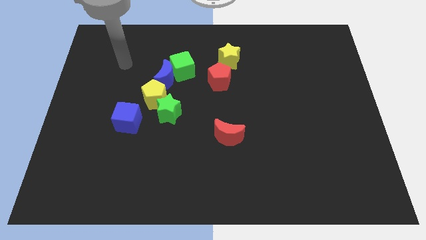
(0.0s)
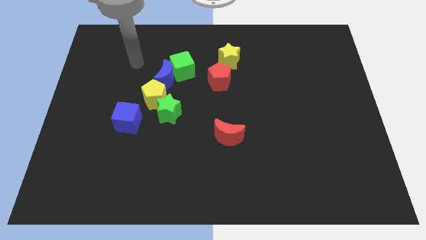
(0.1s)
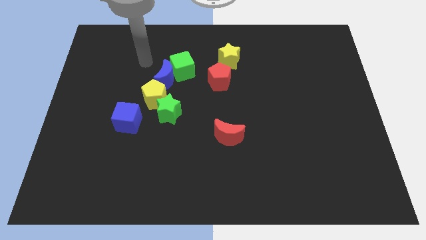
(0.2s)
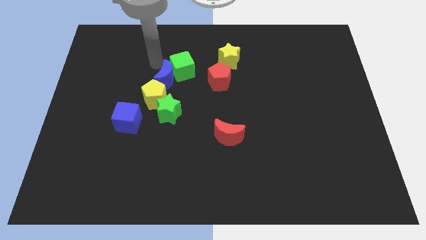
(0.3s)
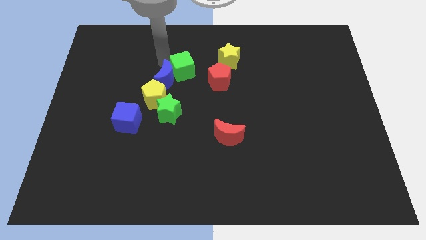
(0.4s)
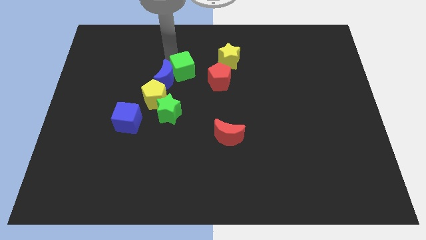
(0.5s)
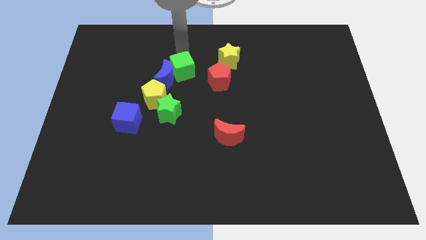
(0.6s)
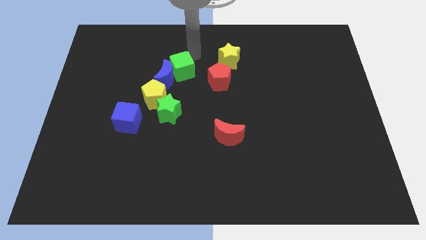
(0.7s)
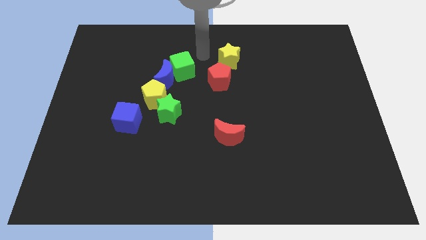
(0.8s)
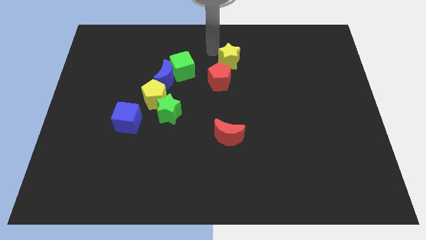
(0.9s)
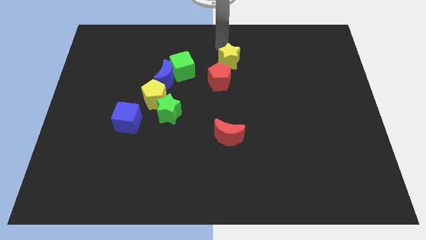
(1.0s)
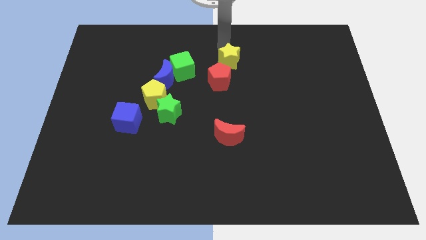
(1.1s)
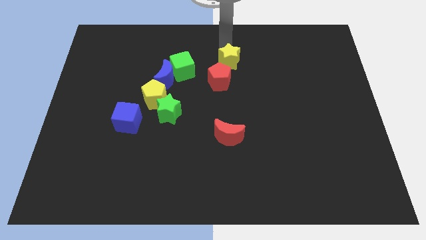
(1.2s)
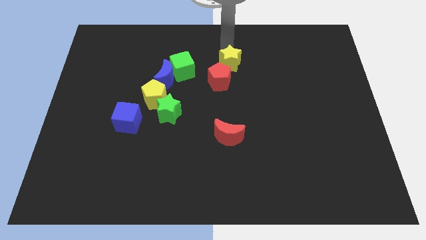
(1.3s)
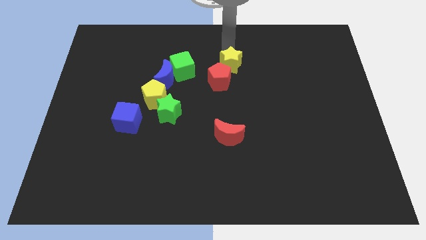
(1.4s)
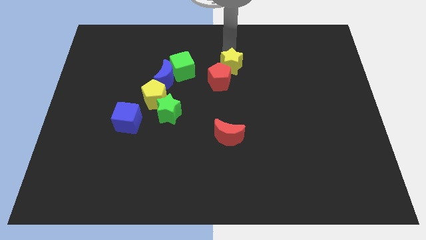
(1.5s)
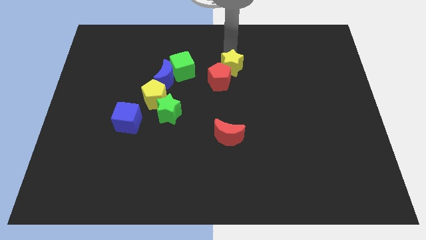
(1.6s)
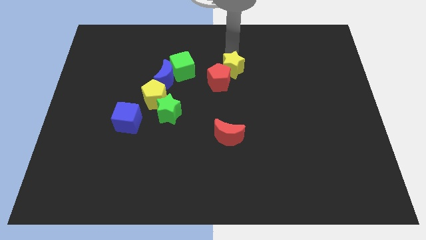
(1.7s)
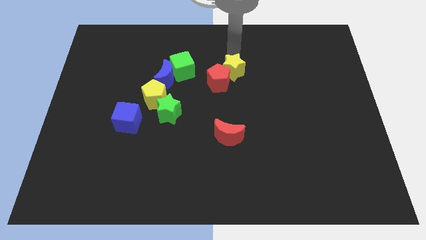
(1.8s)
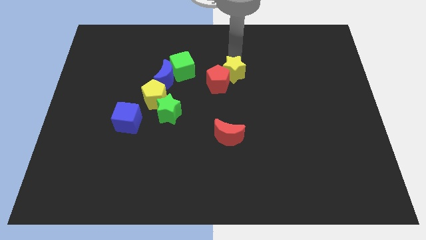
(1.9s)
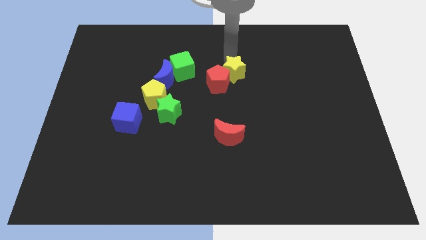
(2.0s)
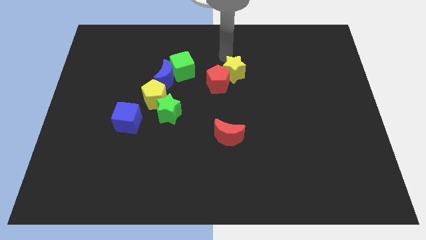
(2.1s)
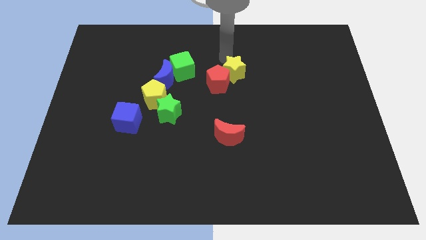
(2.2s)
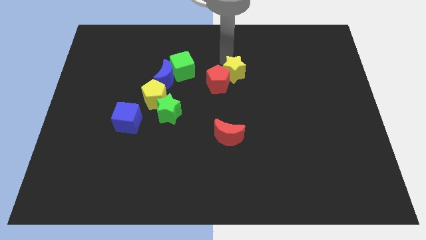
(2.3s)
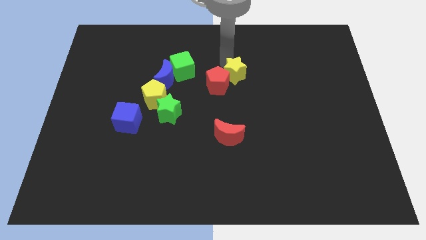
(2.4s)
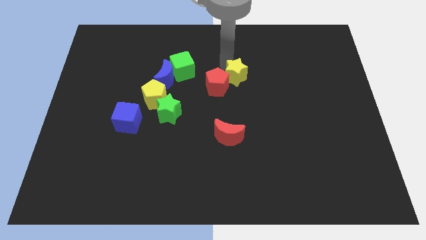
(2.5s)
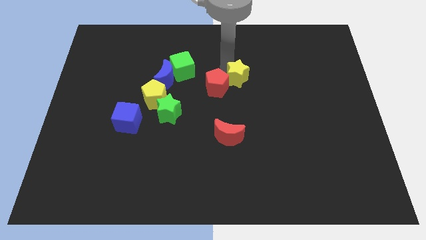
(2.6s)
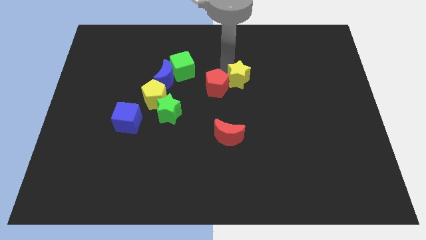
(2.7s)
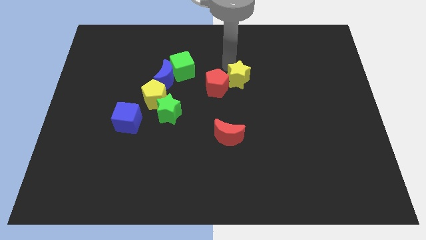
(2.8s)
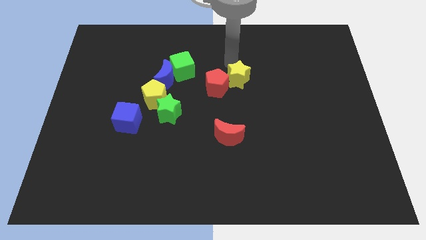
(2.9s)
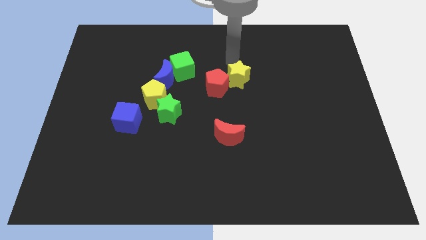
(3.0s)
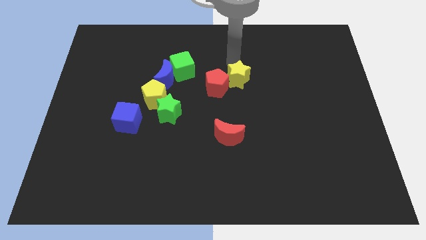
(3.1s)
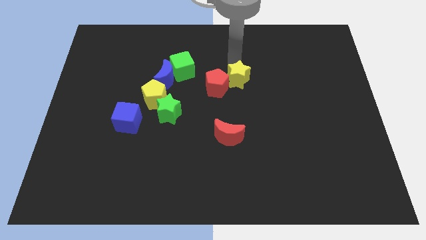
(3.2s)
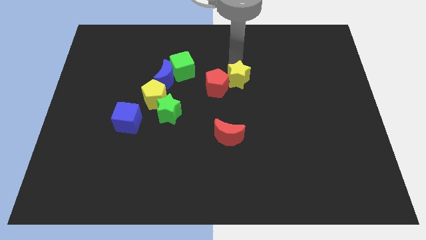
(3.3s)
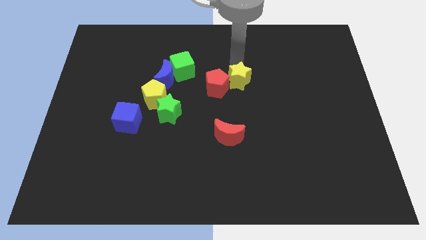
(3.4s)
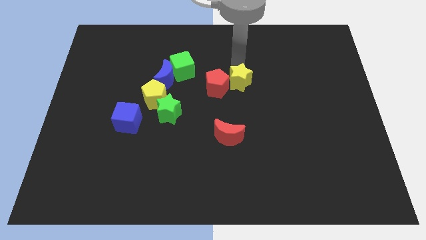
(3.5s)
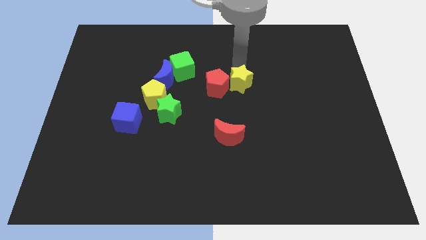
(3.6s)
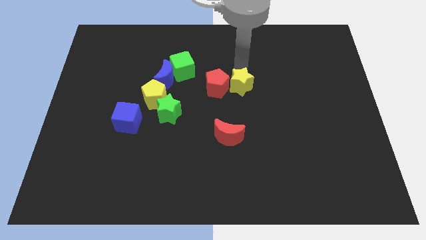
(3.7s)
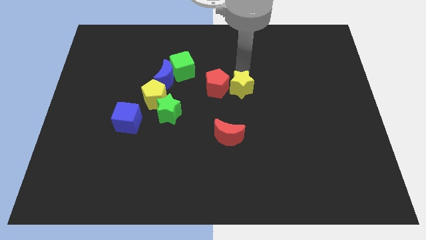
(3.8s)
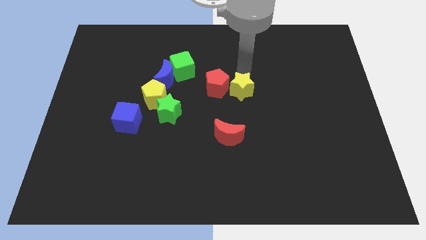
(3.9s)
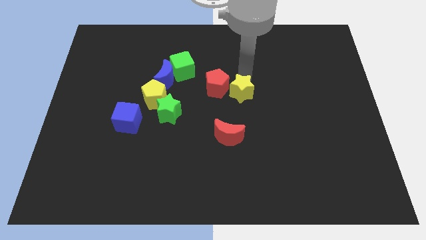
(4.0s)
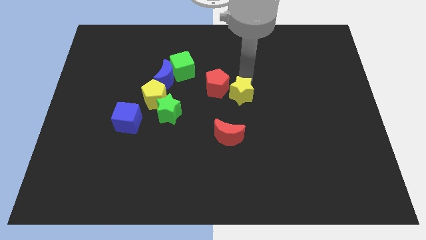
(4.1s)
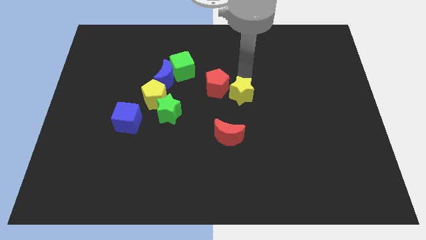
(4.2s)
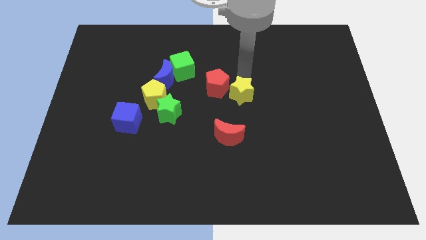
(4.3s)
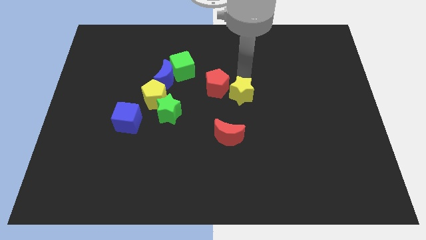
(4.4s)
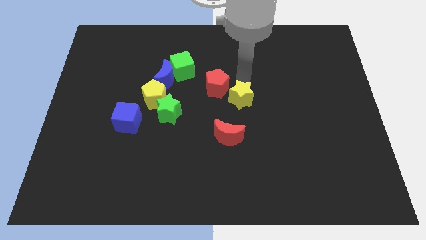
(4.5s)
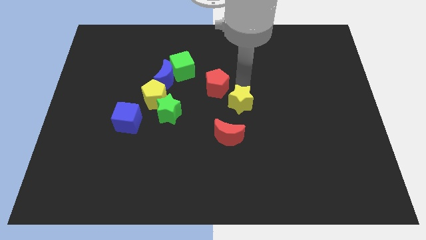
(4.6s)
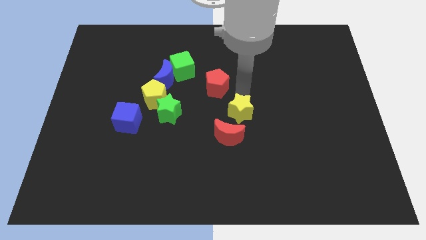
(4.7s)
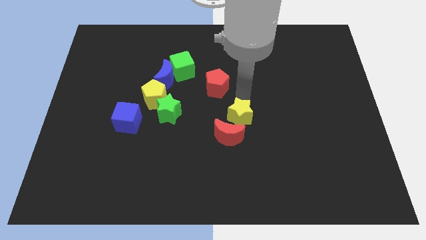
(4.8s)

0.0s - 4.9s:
move the yellow star next to the red moon

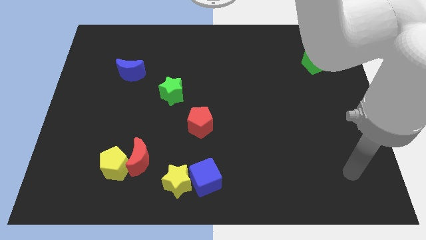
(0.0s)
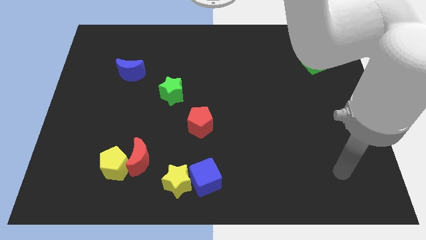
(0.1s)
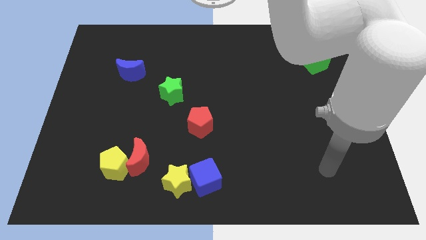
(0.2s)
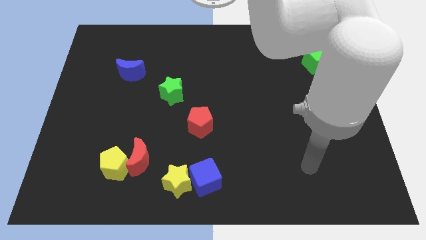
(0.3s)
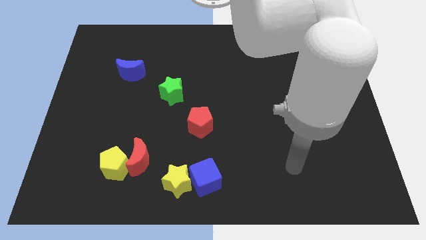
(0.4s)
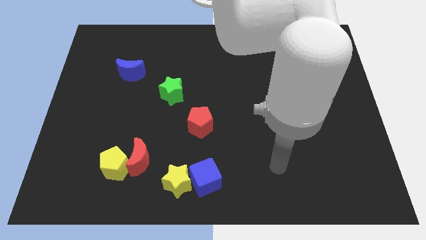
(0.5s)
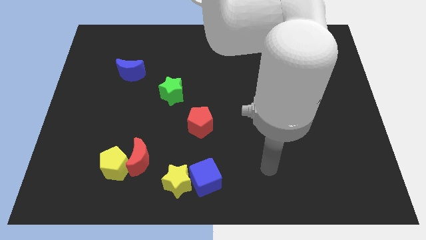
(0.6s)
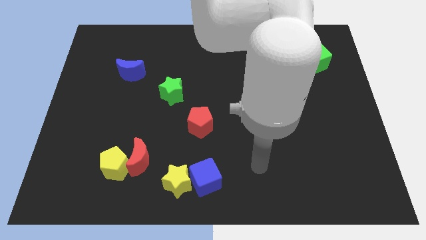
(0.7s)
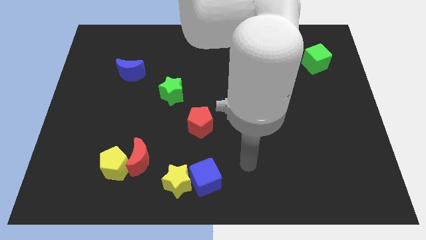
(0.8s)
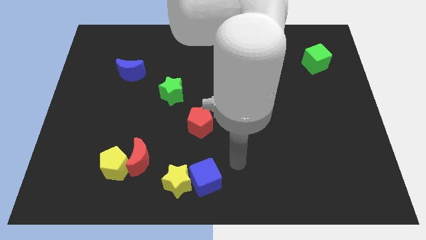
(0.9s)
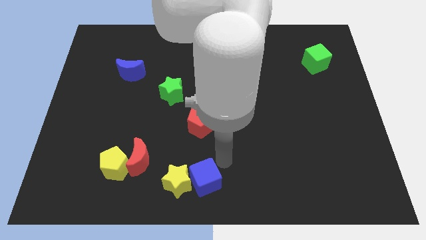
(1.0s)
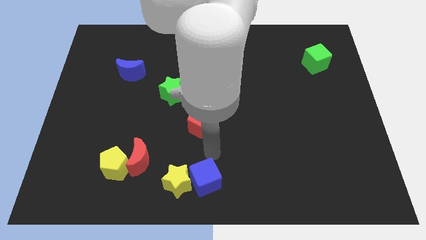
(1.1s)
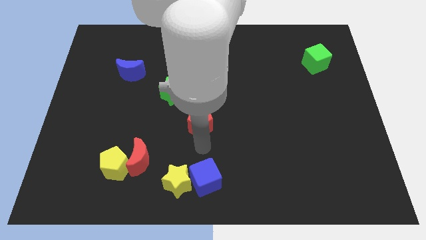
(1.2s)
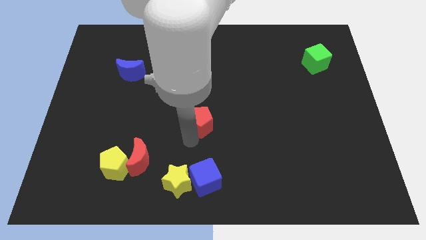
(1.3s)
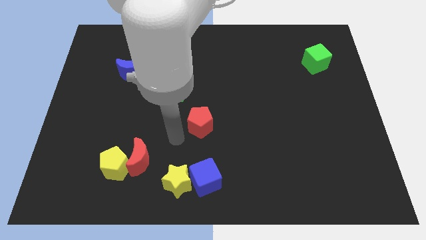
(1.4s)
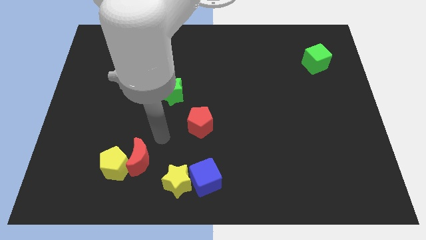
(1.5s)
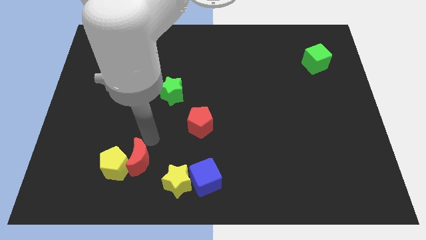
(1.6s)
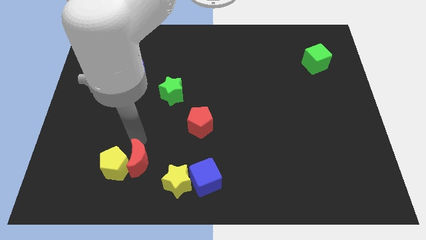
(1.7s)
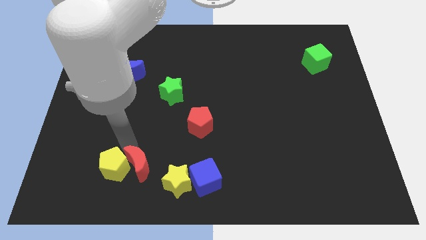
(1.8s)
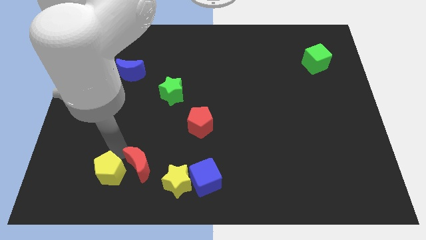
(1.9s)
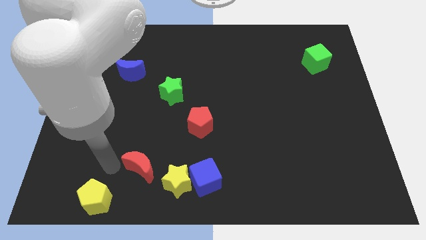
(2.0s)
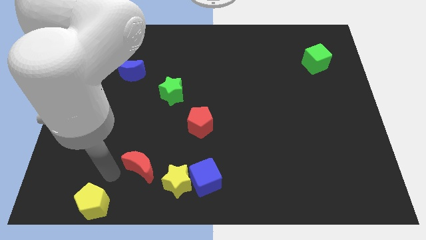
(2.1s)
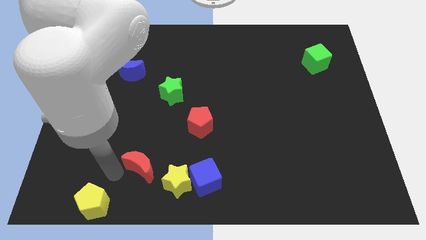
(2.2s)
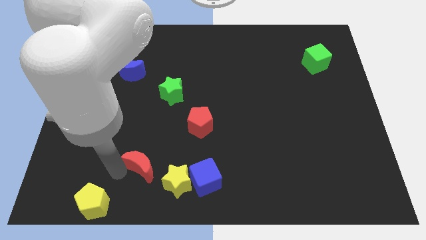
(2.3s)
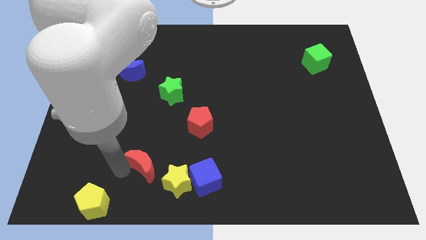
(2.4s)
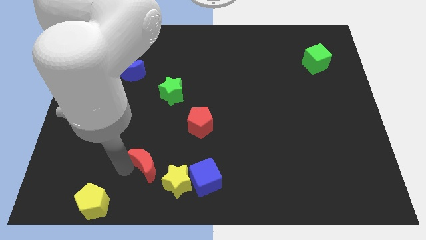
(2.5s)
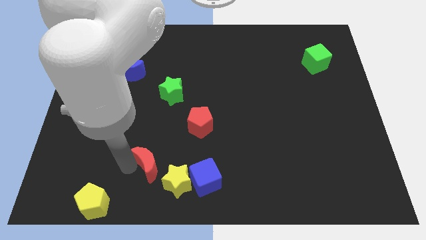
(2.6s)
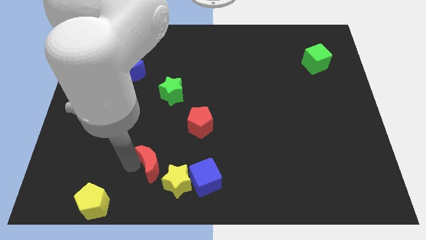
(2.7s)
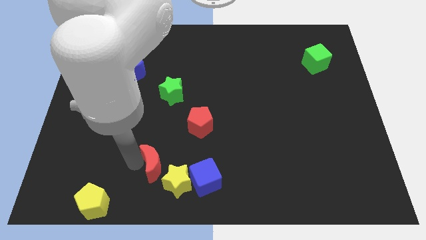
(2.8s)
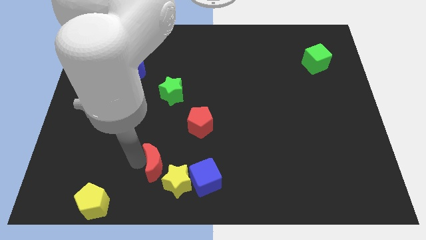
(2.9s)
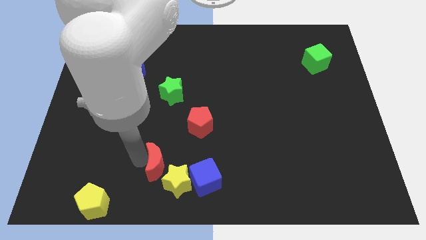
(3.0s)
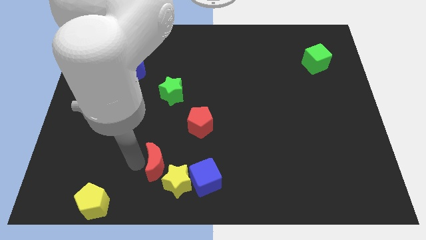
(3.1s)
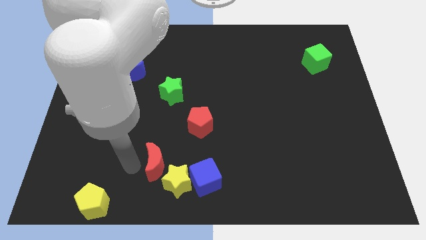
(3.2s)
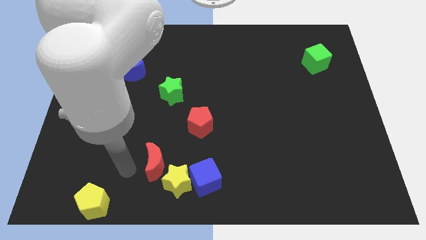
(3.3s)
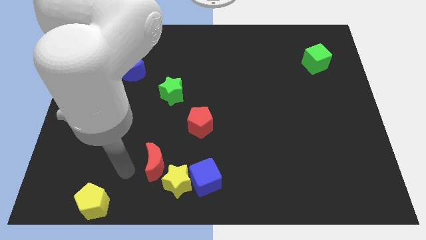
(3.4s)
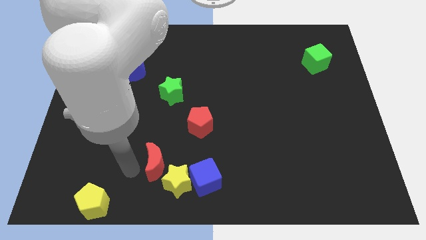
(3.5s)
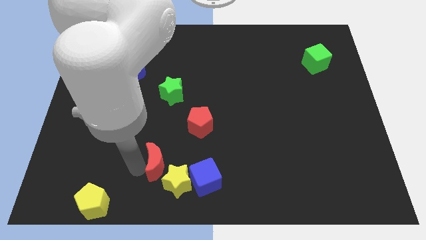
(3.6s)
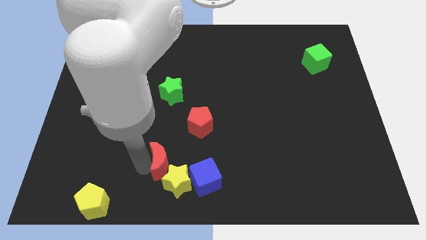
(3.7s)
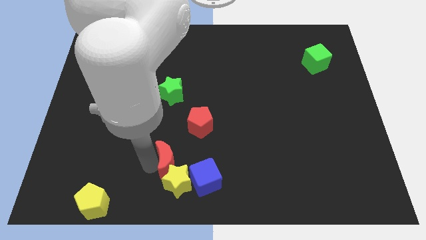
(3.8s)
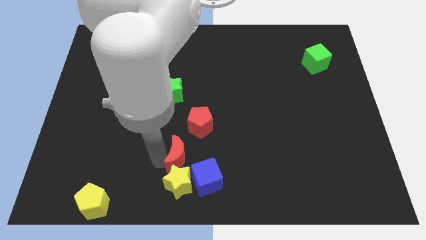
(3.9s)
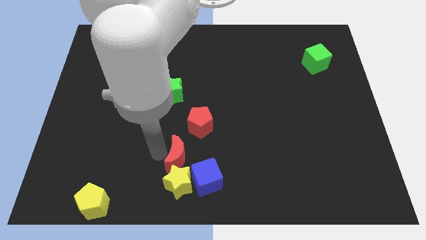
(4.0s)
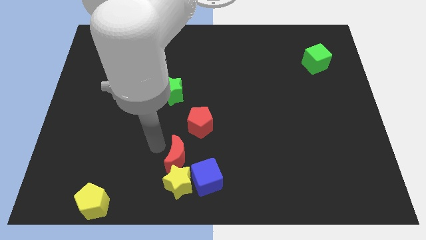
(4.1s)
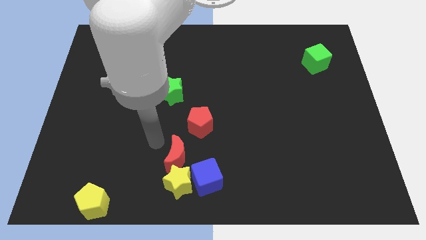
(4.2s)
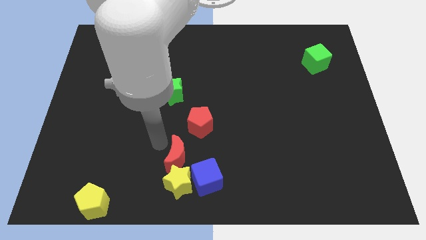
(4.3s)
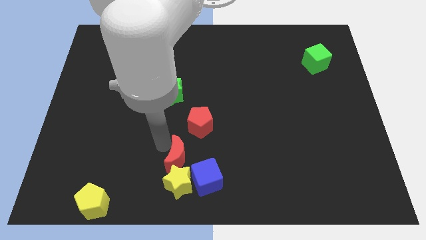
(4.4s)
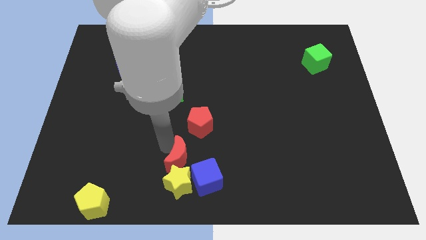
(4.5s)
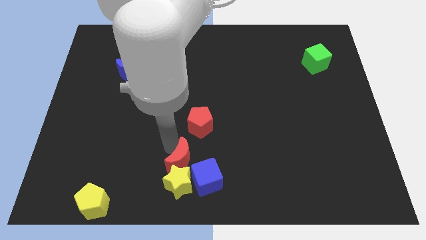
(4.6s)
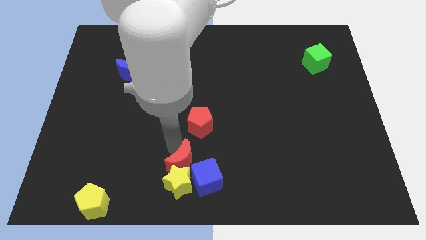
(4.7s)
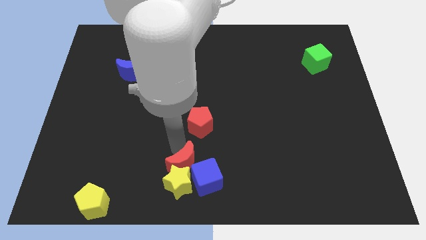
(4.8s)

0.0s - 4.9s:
push the red moon close to the blue cube
